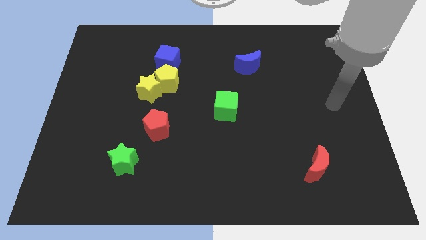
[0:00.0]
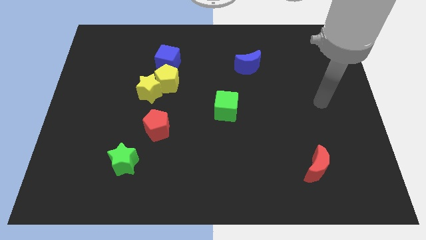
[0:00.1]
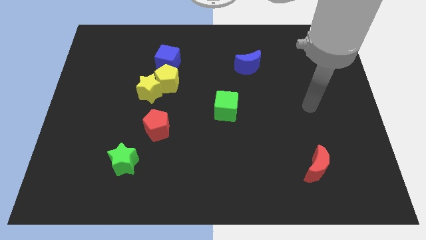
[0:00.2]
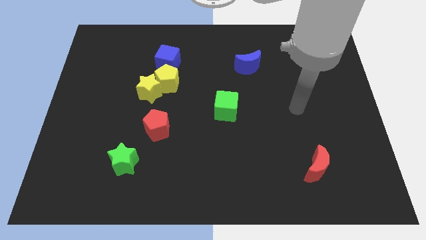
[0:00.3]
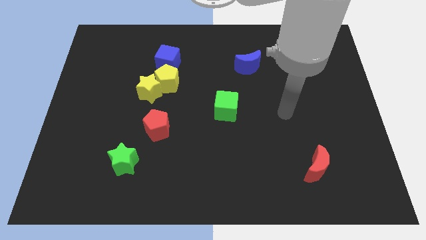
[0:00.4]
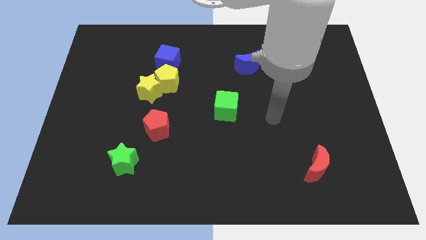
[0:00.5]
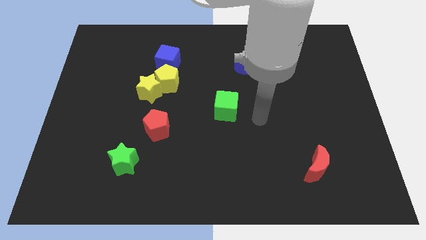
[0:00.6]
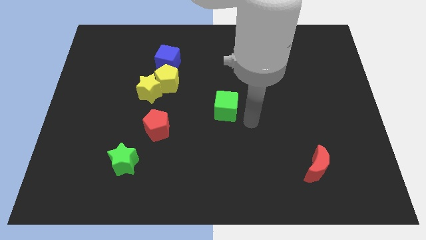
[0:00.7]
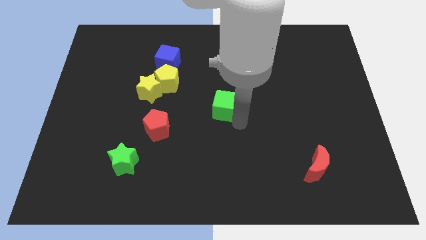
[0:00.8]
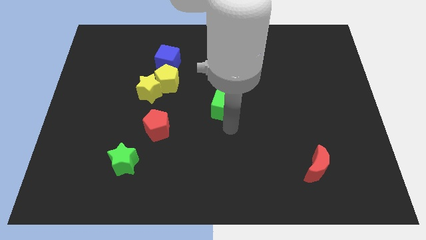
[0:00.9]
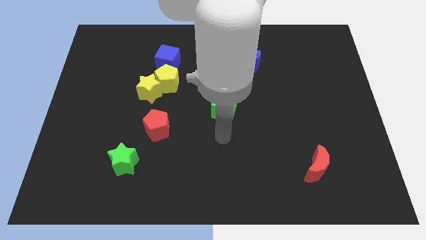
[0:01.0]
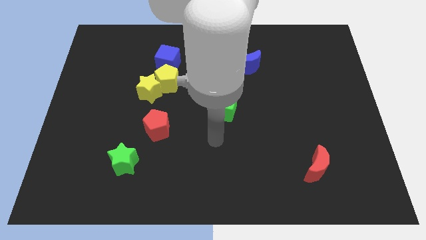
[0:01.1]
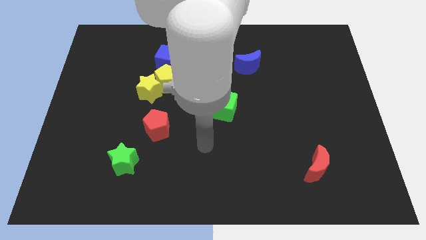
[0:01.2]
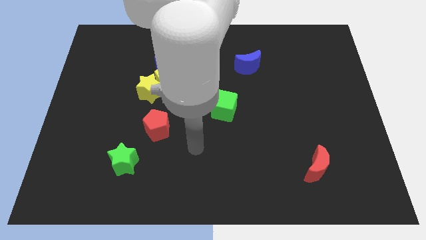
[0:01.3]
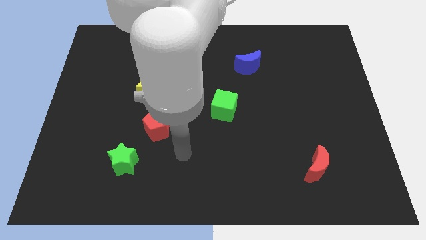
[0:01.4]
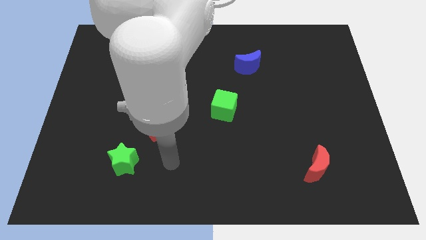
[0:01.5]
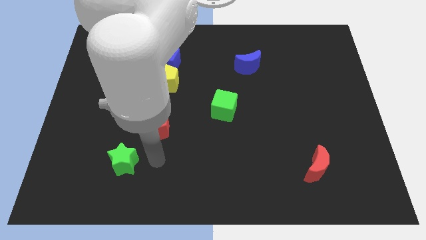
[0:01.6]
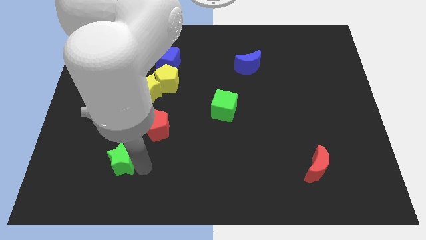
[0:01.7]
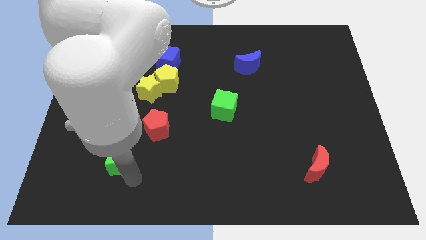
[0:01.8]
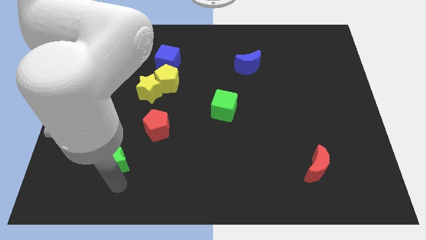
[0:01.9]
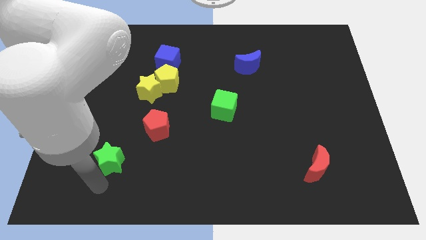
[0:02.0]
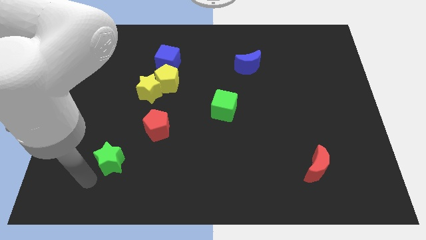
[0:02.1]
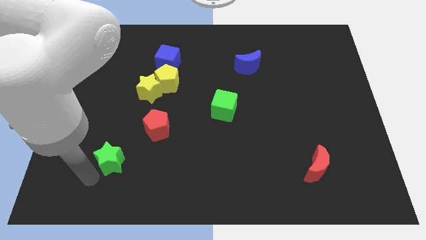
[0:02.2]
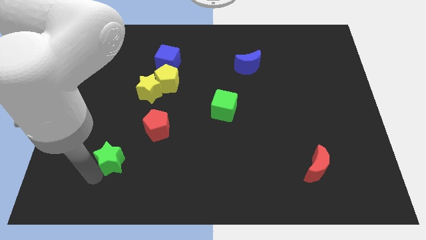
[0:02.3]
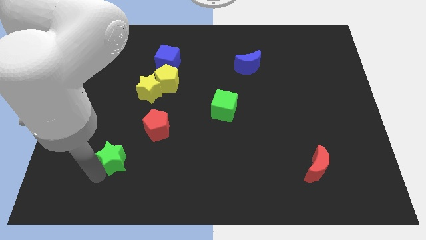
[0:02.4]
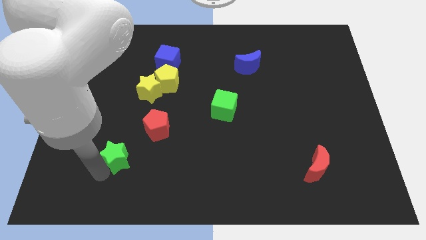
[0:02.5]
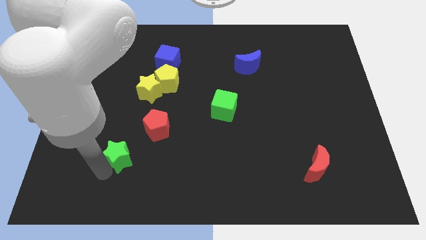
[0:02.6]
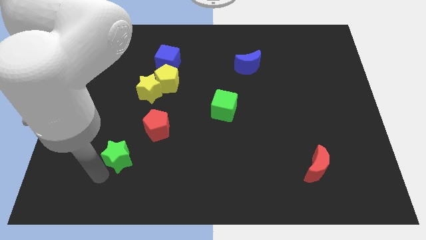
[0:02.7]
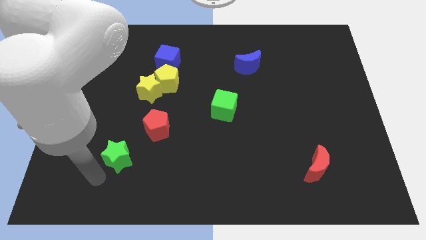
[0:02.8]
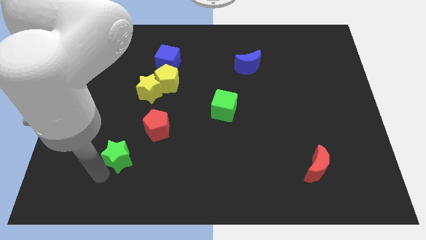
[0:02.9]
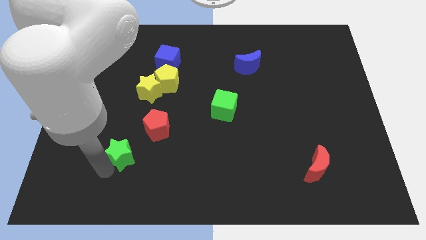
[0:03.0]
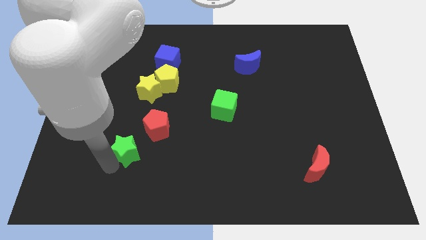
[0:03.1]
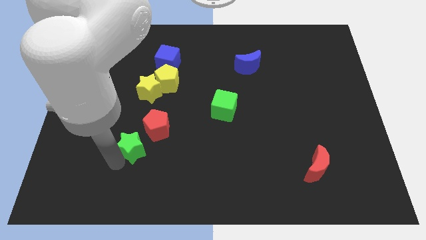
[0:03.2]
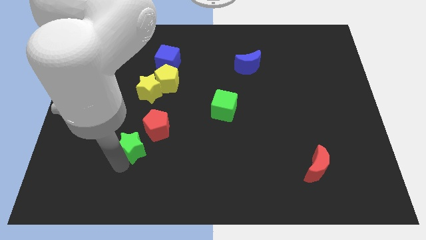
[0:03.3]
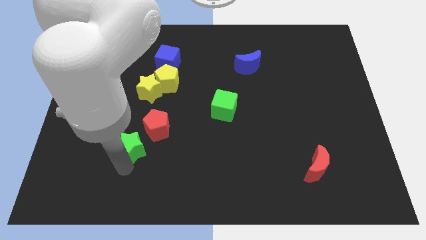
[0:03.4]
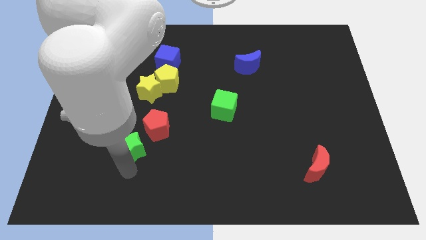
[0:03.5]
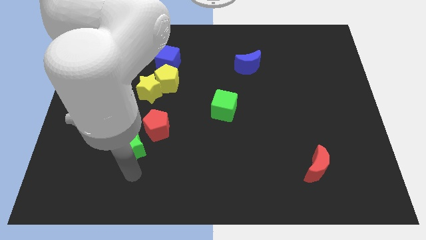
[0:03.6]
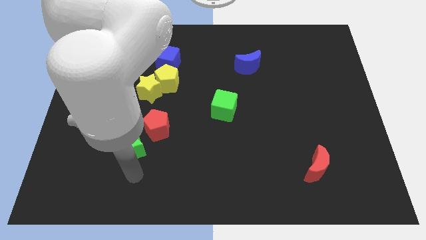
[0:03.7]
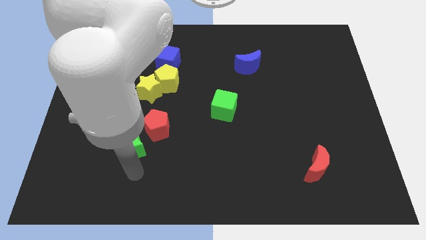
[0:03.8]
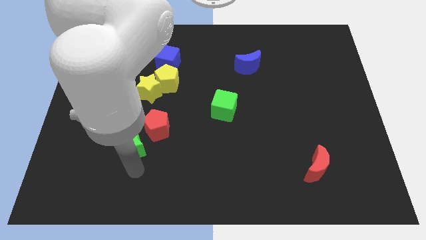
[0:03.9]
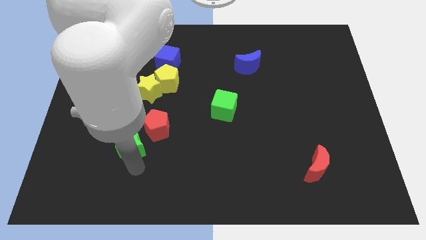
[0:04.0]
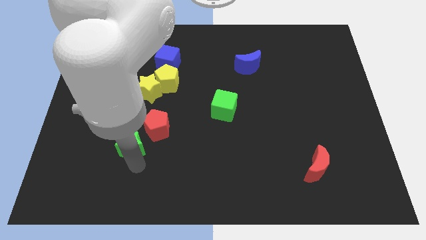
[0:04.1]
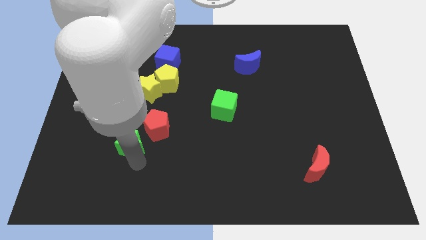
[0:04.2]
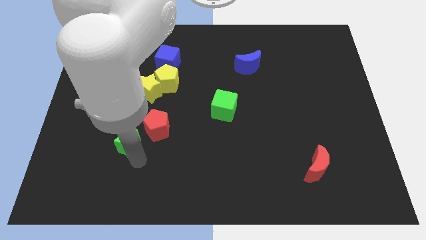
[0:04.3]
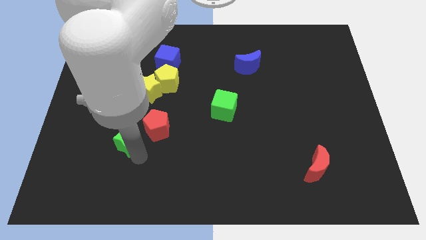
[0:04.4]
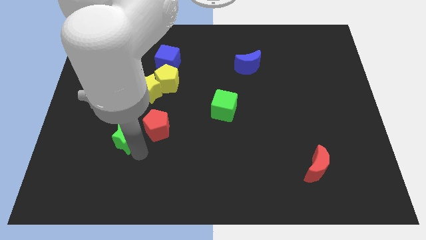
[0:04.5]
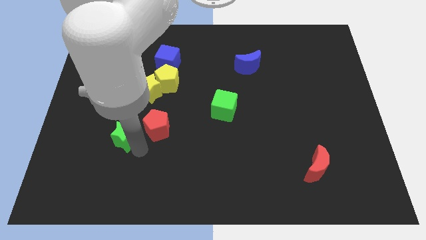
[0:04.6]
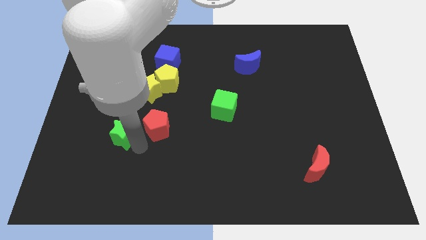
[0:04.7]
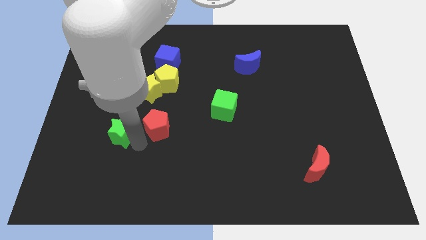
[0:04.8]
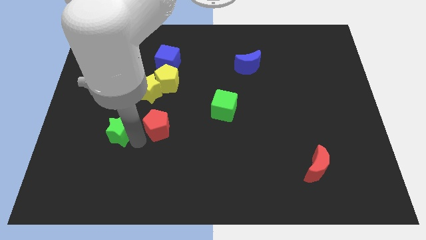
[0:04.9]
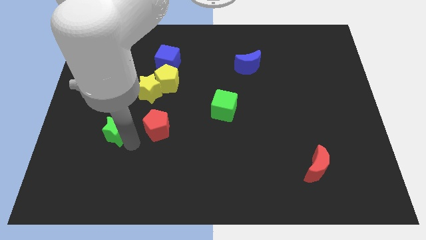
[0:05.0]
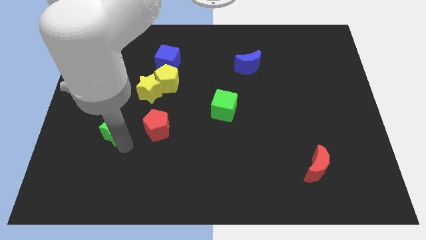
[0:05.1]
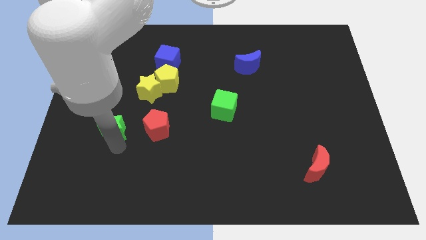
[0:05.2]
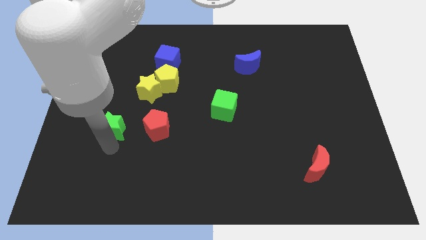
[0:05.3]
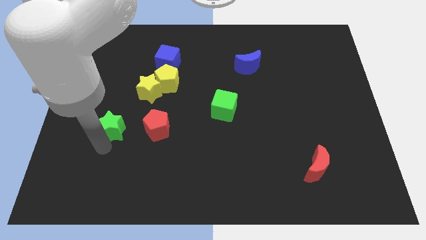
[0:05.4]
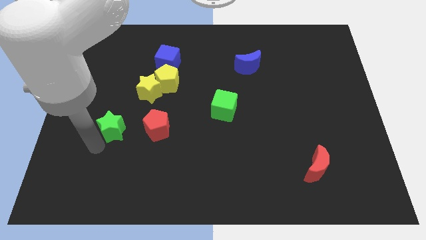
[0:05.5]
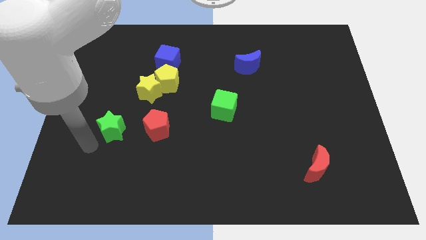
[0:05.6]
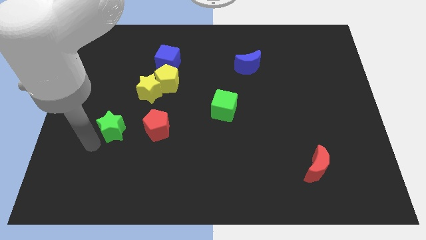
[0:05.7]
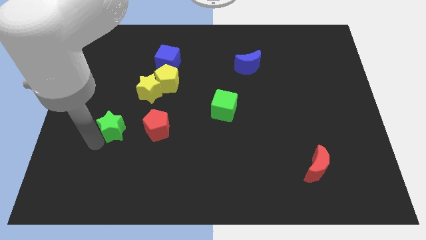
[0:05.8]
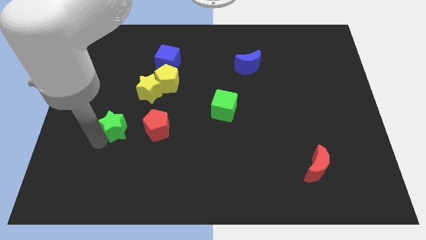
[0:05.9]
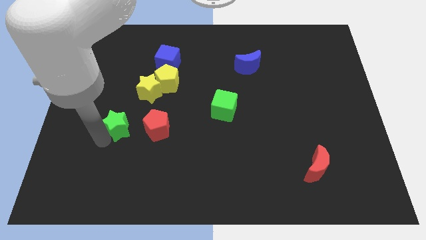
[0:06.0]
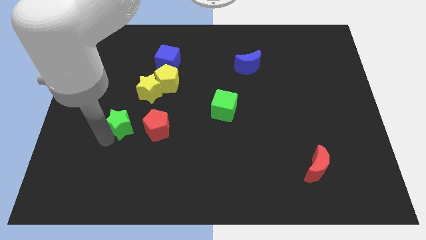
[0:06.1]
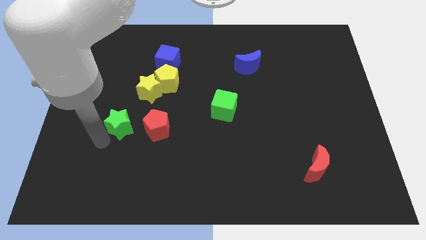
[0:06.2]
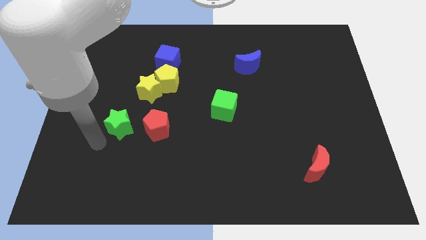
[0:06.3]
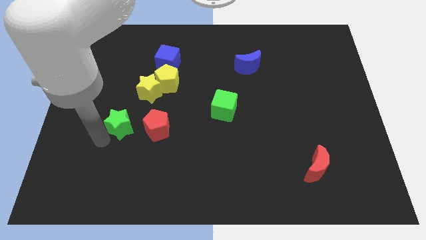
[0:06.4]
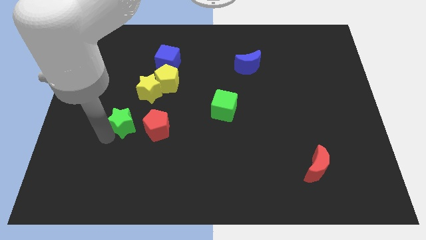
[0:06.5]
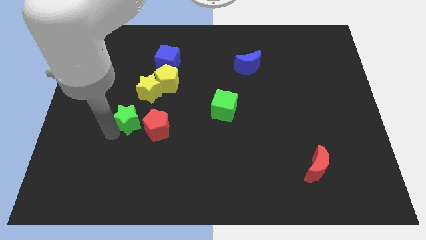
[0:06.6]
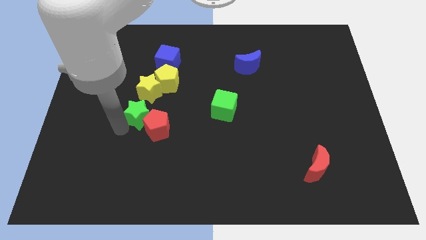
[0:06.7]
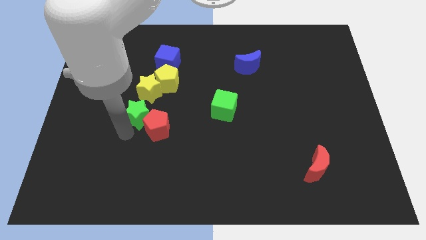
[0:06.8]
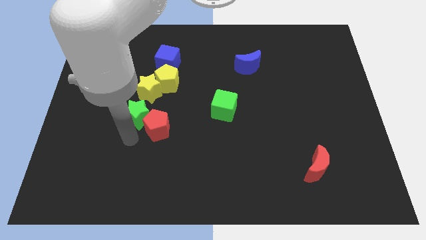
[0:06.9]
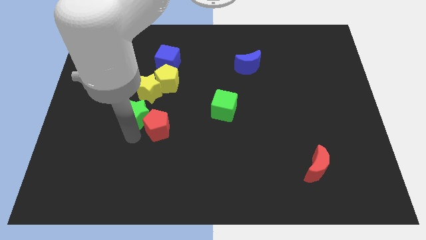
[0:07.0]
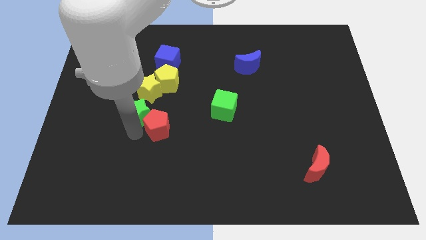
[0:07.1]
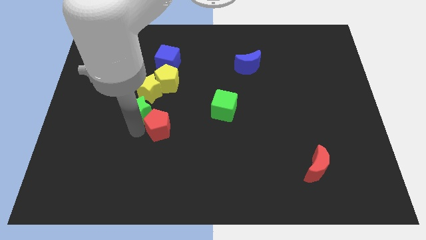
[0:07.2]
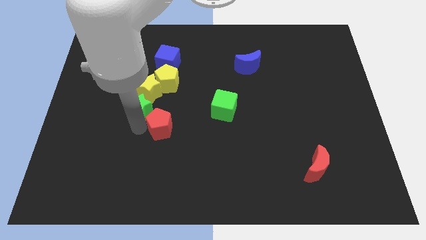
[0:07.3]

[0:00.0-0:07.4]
slide the green star next to the yellow star

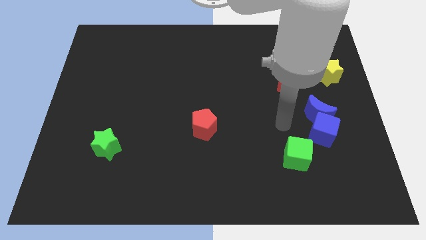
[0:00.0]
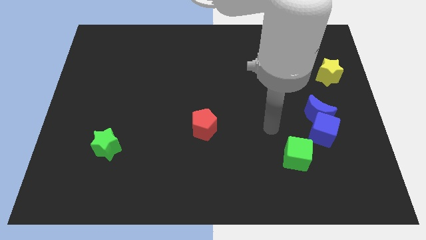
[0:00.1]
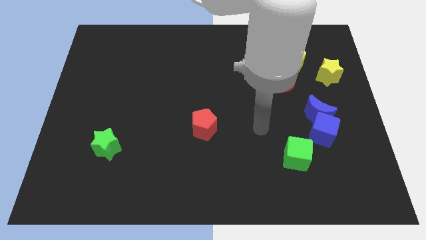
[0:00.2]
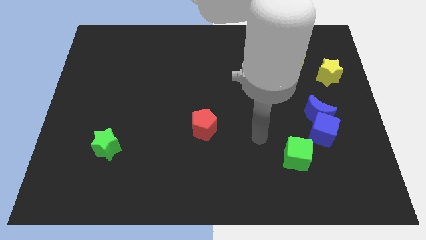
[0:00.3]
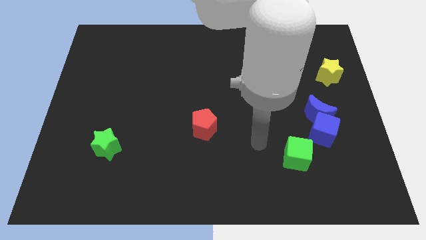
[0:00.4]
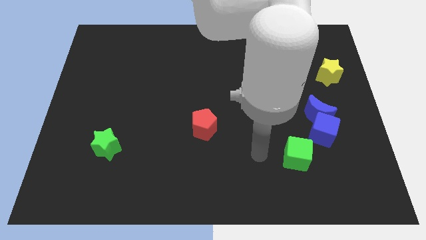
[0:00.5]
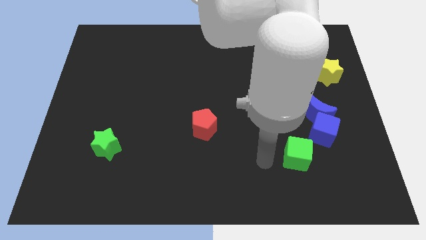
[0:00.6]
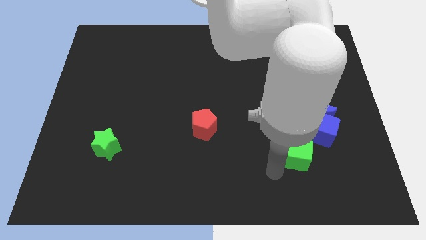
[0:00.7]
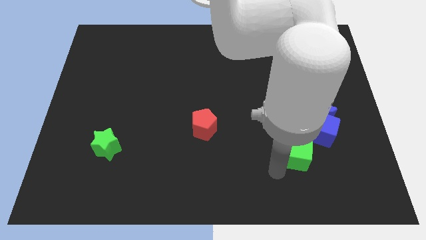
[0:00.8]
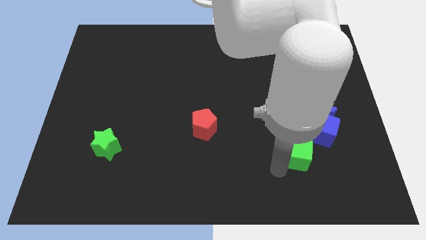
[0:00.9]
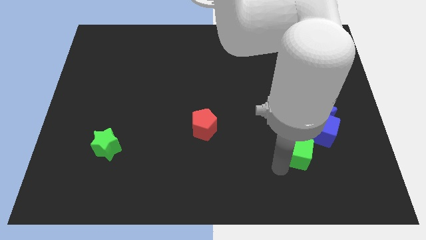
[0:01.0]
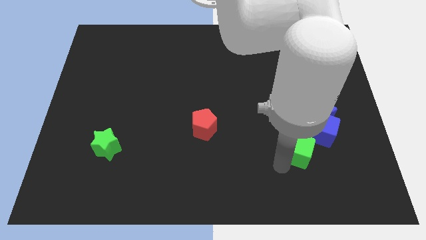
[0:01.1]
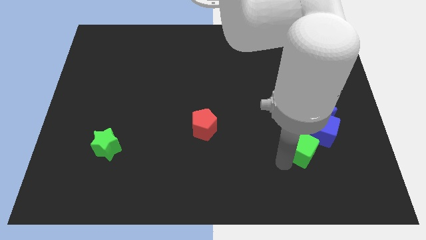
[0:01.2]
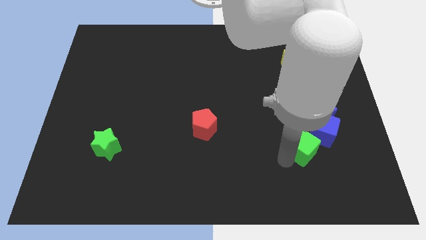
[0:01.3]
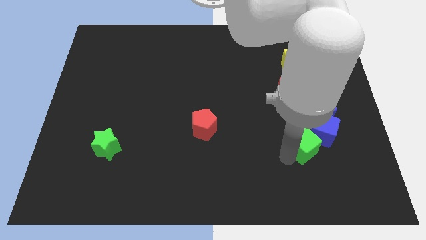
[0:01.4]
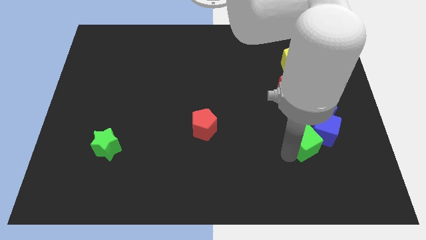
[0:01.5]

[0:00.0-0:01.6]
move the green cube towards the blue cube
